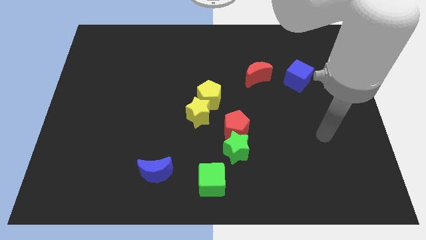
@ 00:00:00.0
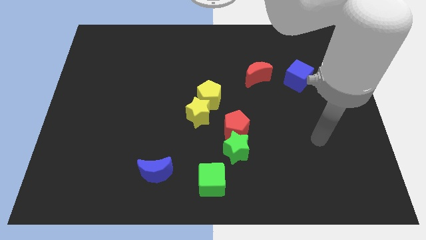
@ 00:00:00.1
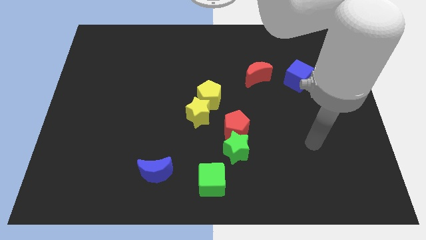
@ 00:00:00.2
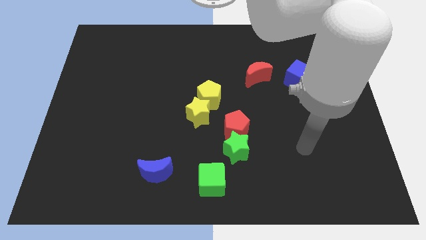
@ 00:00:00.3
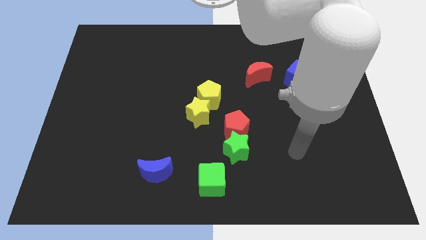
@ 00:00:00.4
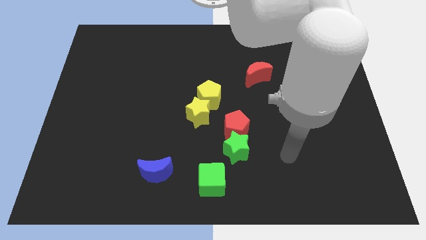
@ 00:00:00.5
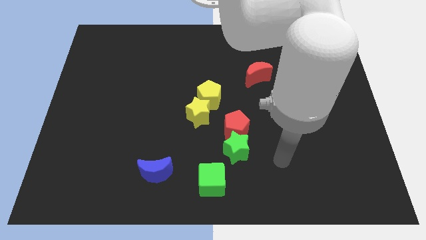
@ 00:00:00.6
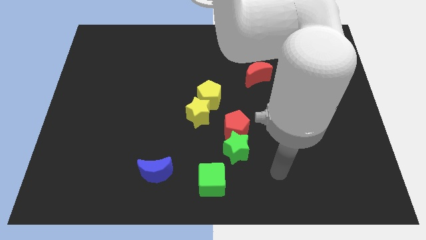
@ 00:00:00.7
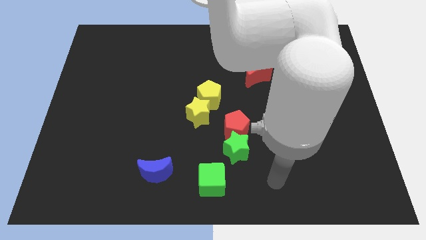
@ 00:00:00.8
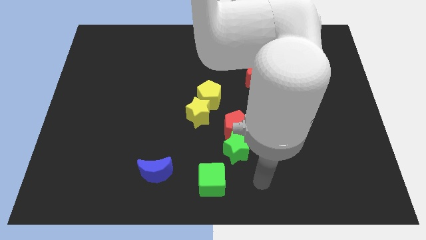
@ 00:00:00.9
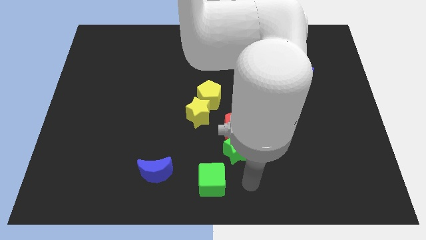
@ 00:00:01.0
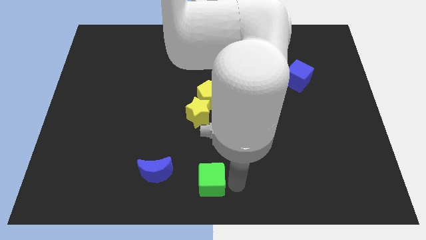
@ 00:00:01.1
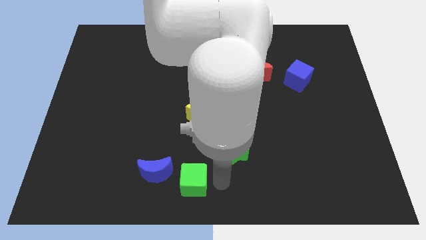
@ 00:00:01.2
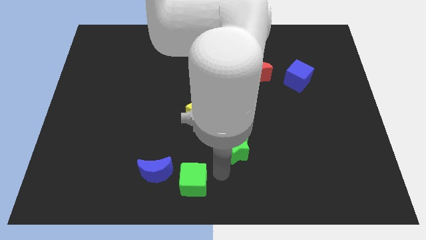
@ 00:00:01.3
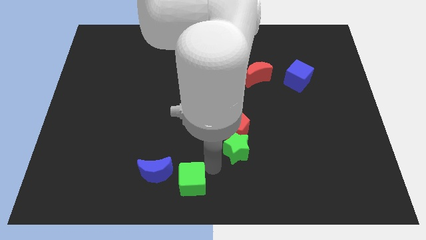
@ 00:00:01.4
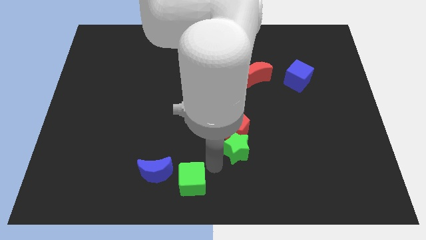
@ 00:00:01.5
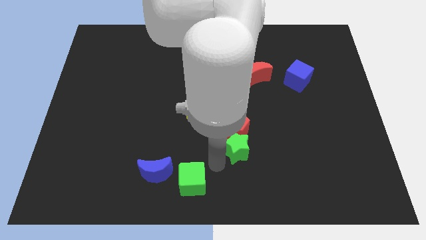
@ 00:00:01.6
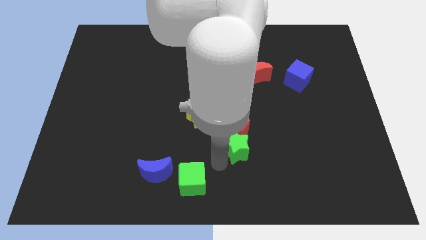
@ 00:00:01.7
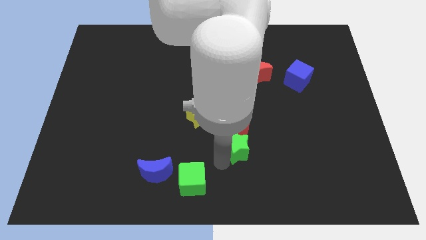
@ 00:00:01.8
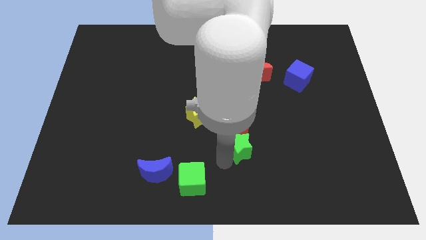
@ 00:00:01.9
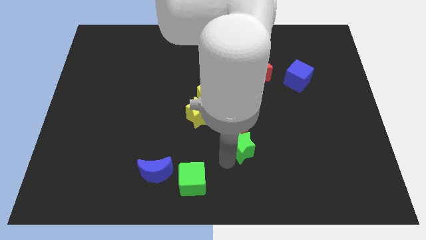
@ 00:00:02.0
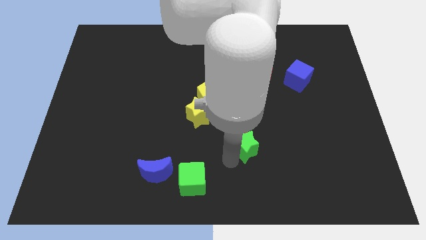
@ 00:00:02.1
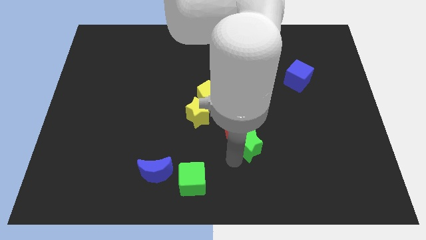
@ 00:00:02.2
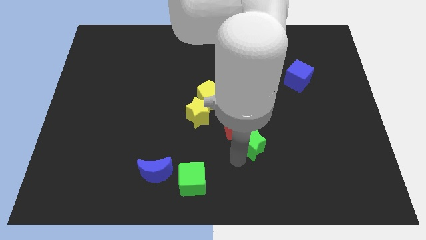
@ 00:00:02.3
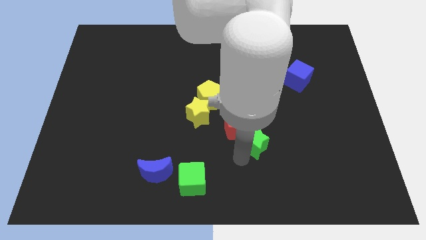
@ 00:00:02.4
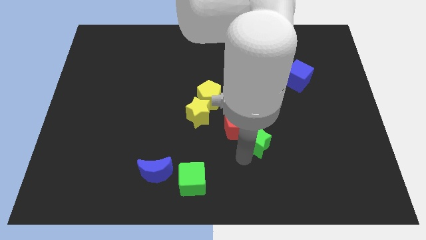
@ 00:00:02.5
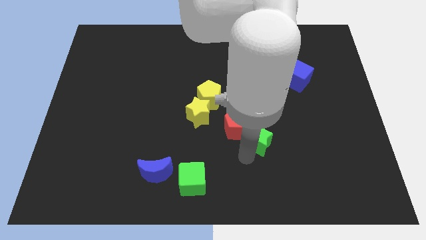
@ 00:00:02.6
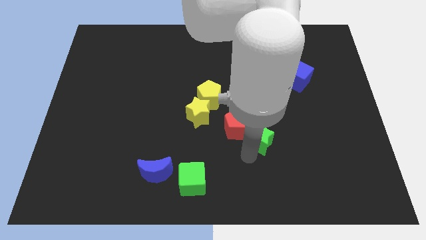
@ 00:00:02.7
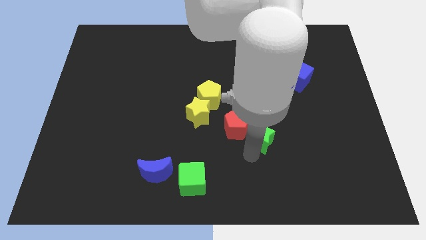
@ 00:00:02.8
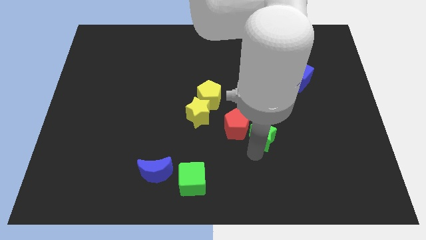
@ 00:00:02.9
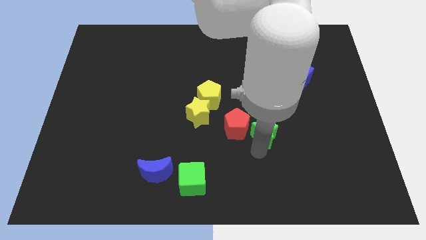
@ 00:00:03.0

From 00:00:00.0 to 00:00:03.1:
push the green star up and to the right diagonally slightly

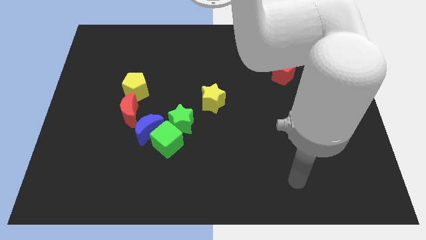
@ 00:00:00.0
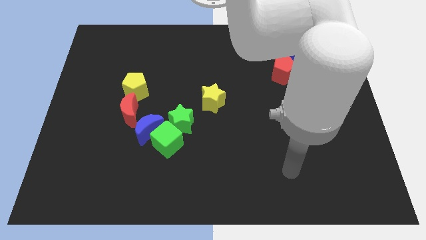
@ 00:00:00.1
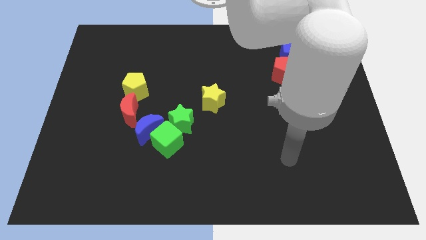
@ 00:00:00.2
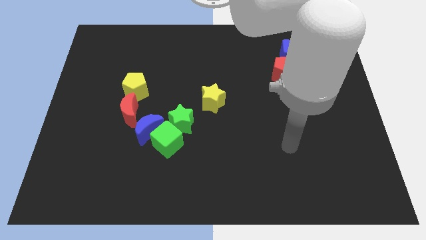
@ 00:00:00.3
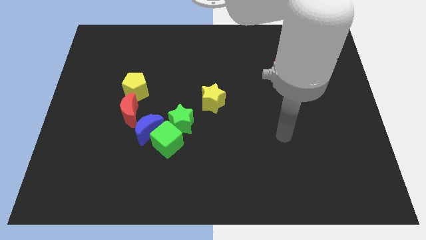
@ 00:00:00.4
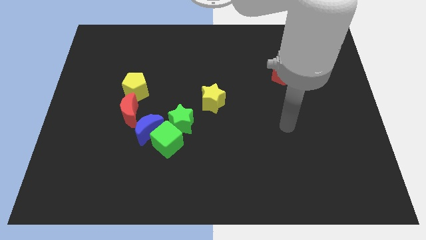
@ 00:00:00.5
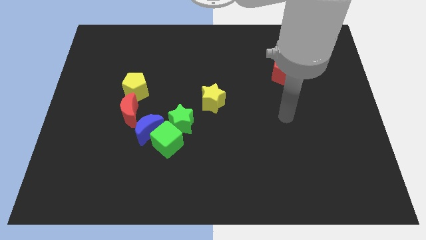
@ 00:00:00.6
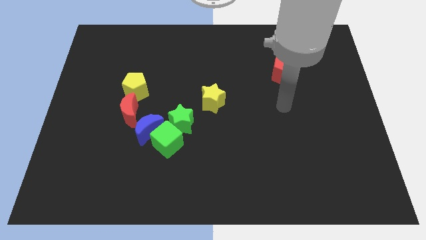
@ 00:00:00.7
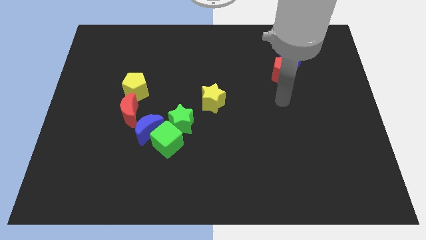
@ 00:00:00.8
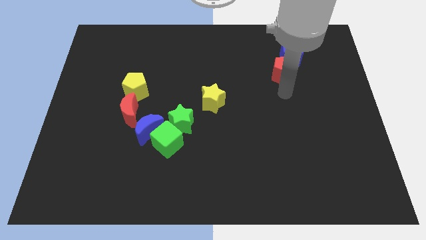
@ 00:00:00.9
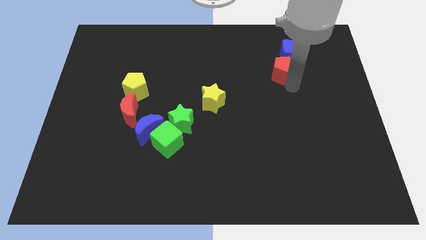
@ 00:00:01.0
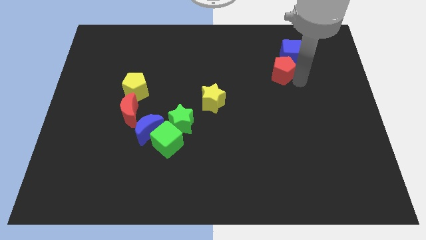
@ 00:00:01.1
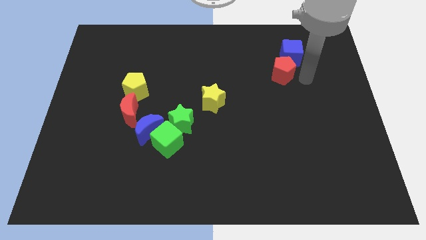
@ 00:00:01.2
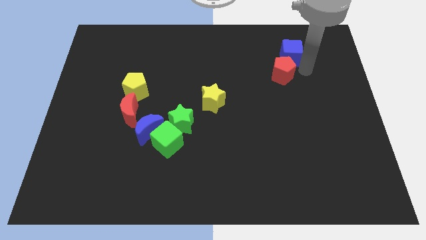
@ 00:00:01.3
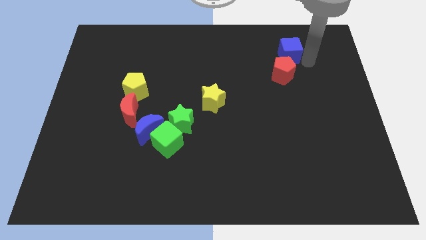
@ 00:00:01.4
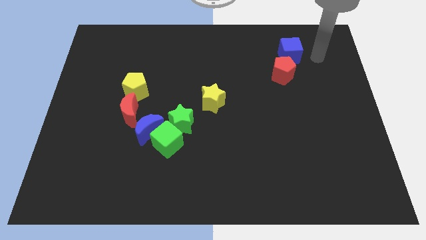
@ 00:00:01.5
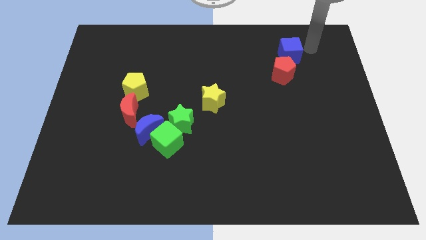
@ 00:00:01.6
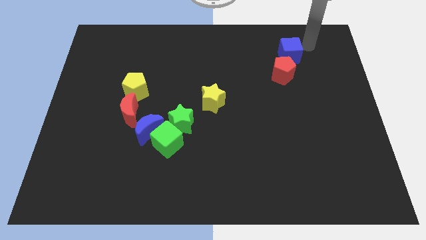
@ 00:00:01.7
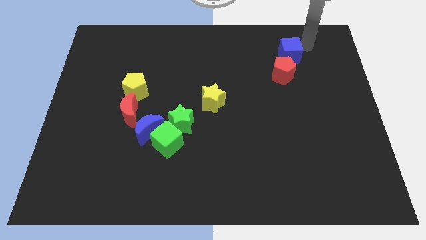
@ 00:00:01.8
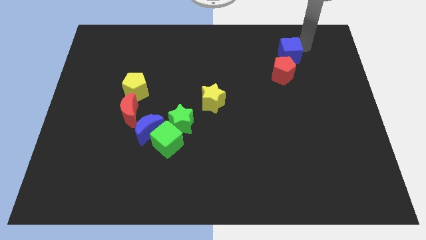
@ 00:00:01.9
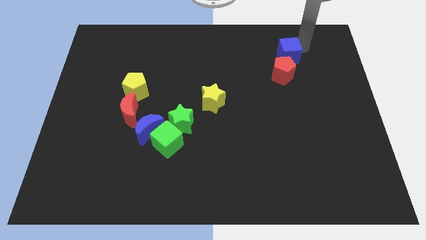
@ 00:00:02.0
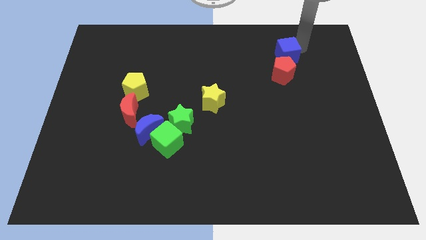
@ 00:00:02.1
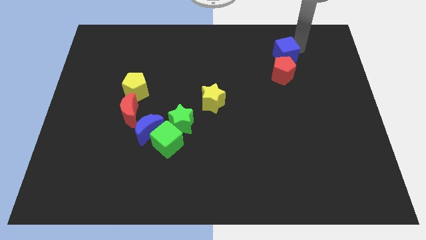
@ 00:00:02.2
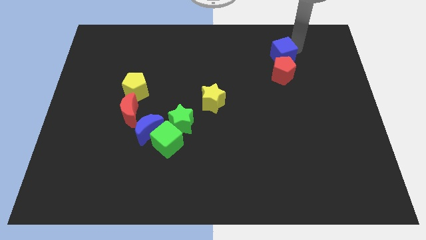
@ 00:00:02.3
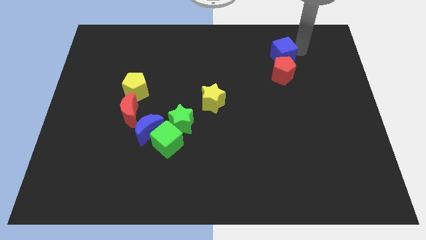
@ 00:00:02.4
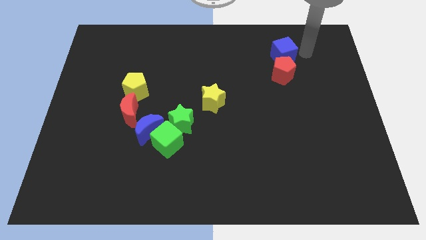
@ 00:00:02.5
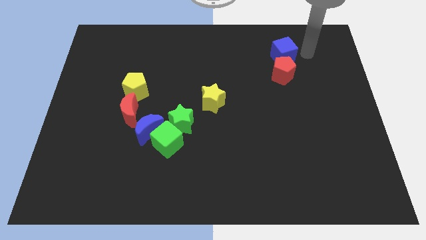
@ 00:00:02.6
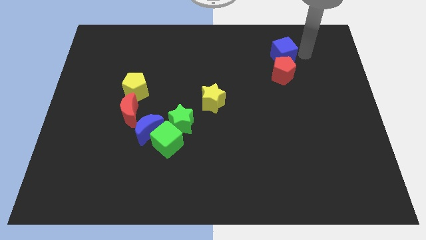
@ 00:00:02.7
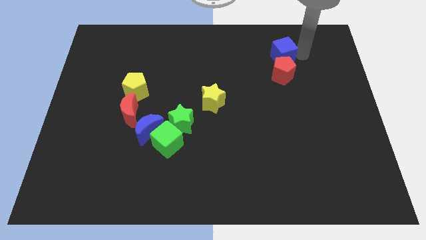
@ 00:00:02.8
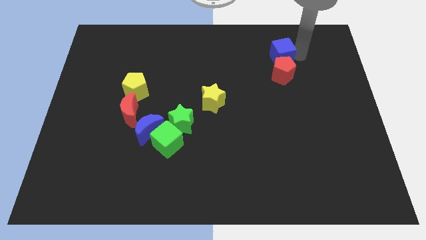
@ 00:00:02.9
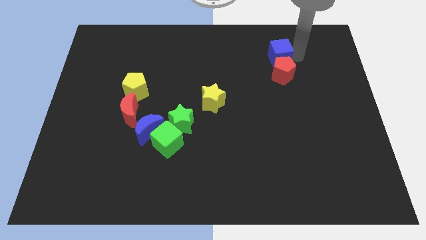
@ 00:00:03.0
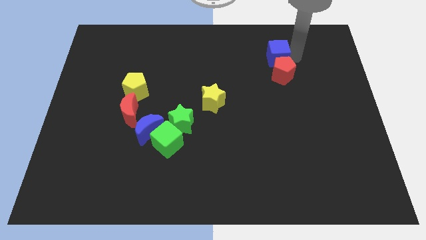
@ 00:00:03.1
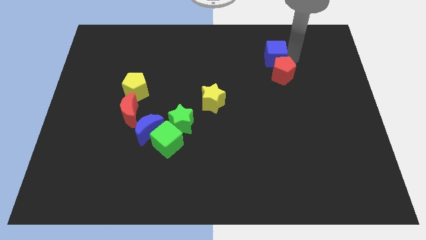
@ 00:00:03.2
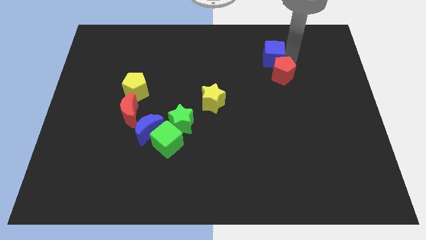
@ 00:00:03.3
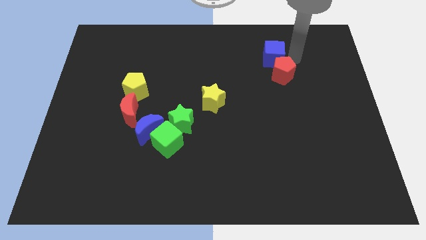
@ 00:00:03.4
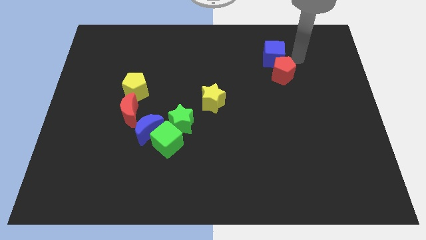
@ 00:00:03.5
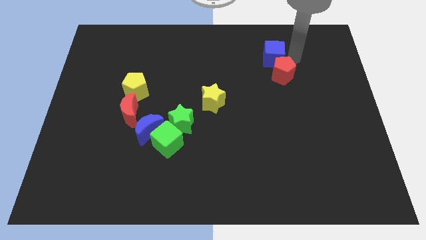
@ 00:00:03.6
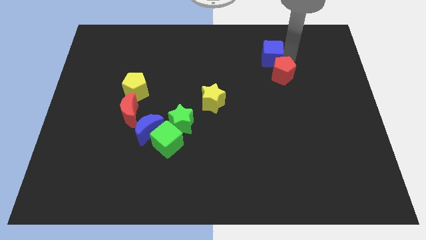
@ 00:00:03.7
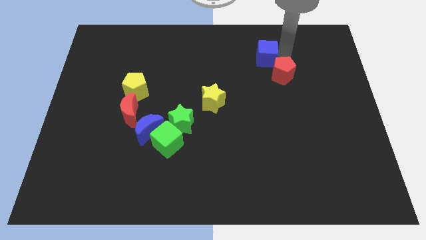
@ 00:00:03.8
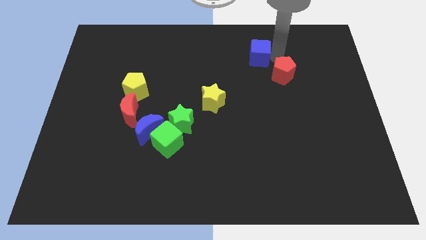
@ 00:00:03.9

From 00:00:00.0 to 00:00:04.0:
move the blue cube slightly to the left

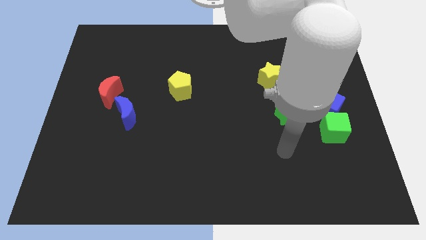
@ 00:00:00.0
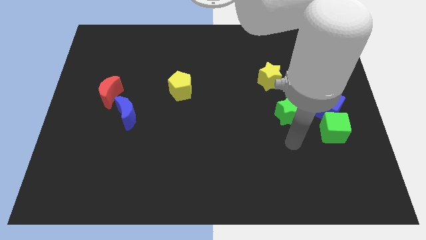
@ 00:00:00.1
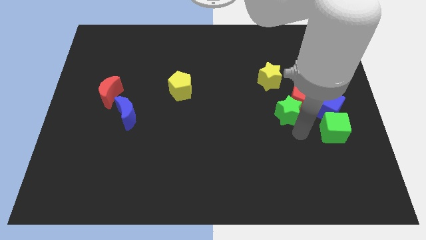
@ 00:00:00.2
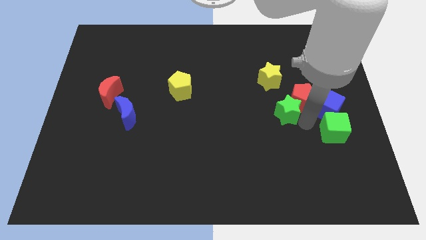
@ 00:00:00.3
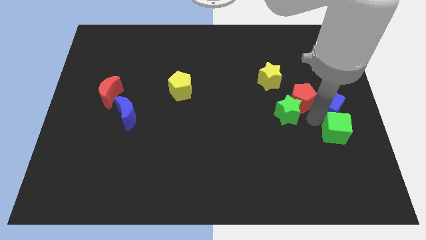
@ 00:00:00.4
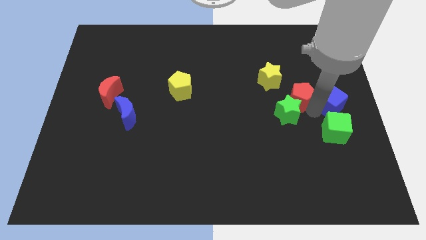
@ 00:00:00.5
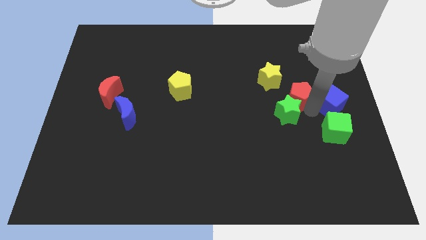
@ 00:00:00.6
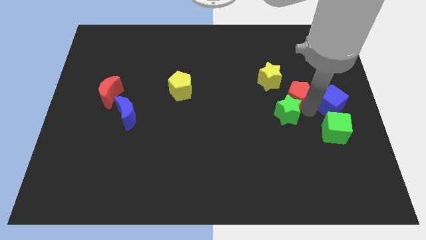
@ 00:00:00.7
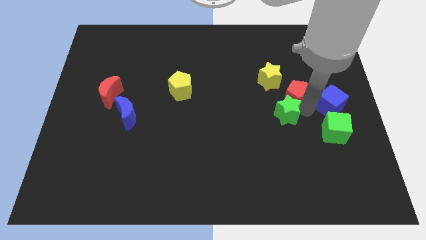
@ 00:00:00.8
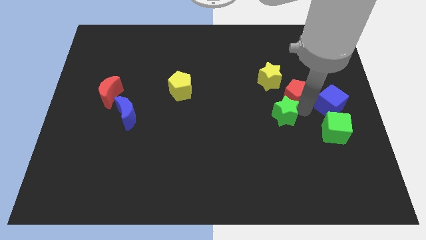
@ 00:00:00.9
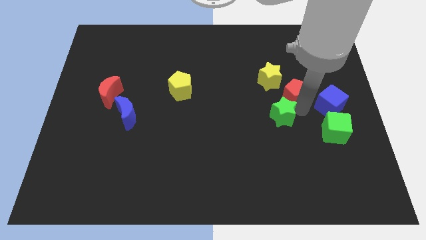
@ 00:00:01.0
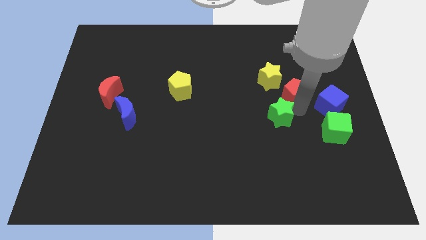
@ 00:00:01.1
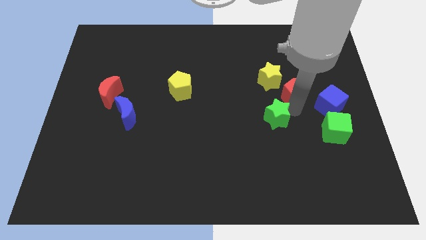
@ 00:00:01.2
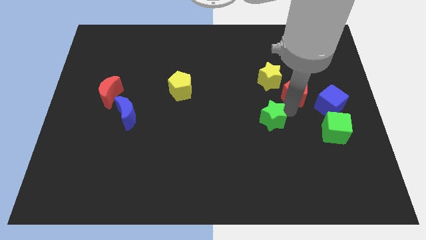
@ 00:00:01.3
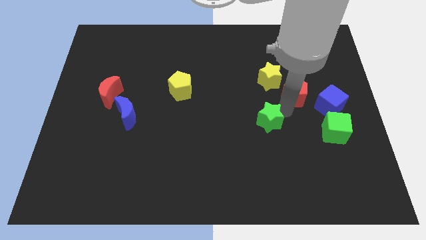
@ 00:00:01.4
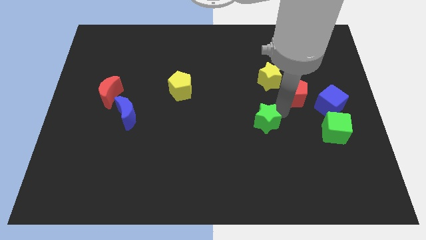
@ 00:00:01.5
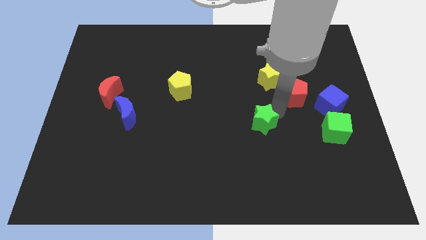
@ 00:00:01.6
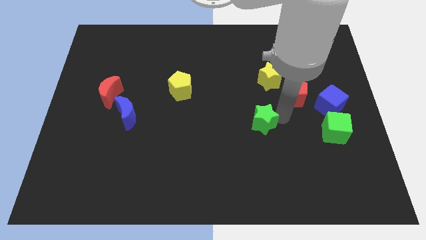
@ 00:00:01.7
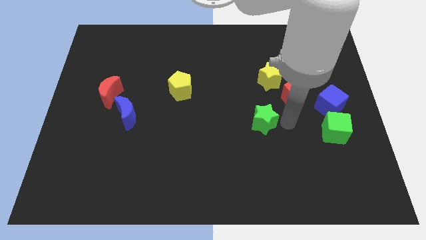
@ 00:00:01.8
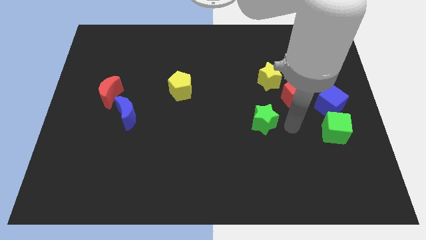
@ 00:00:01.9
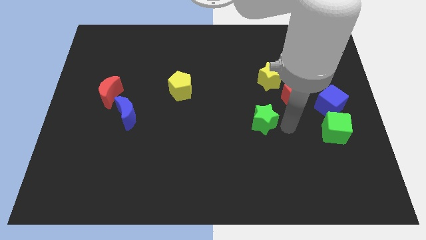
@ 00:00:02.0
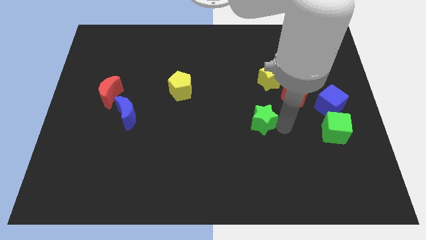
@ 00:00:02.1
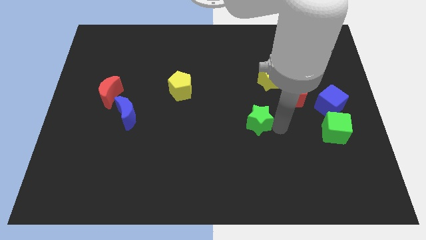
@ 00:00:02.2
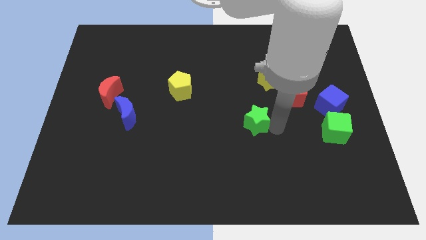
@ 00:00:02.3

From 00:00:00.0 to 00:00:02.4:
push the green star slightly left
